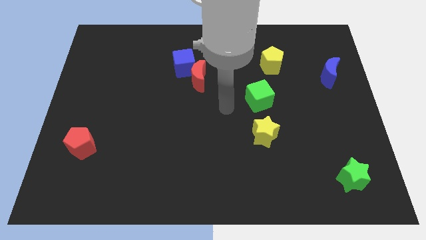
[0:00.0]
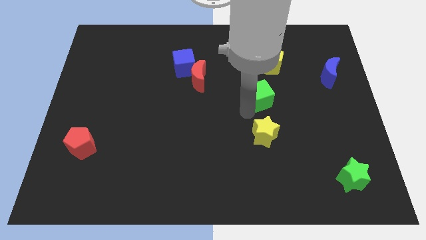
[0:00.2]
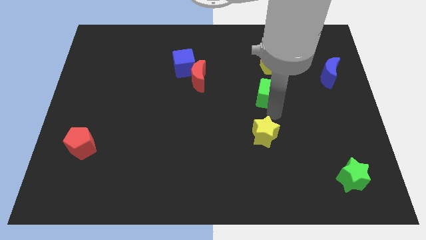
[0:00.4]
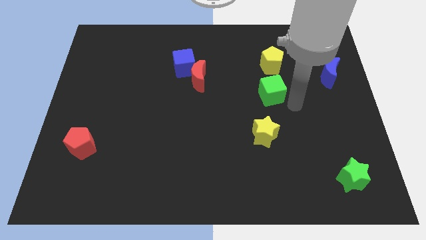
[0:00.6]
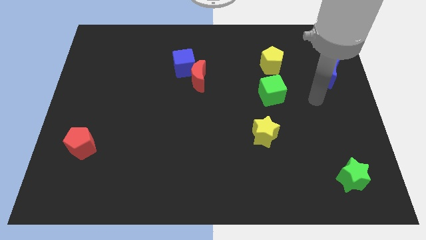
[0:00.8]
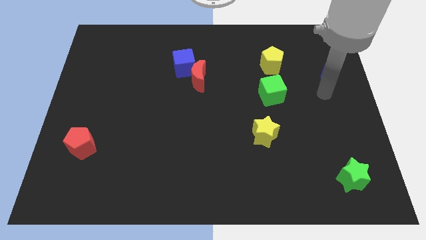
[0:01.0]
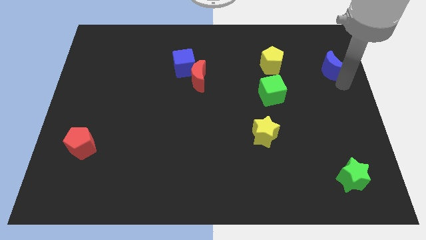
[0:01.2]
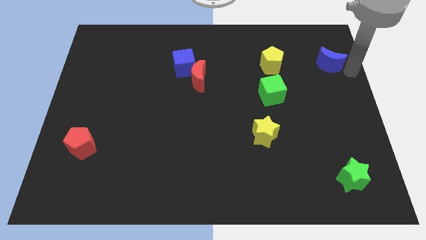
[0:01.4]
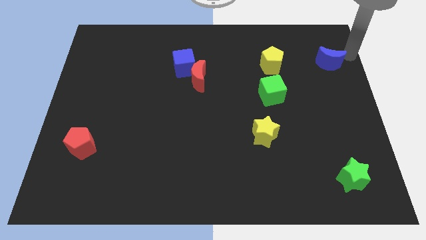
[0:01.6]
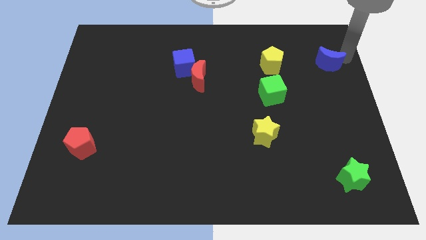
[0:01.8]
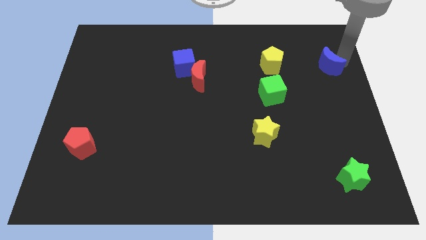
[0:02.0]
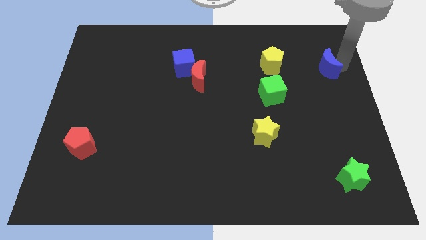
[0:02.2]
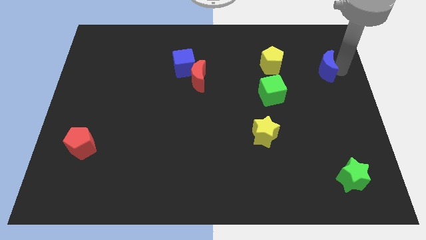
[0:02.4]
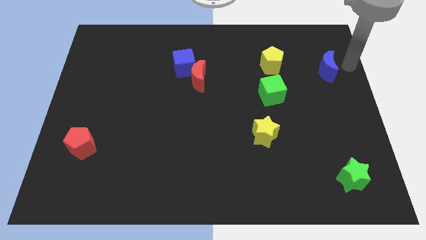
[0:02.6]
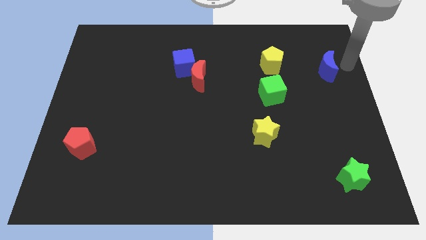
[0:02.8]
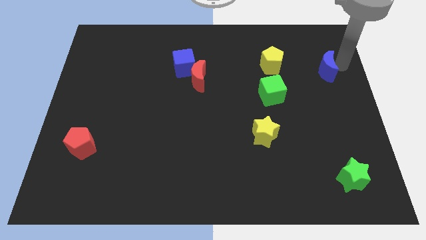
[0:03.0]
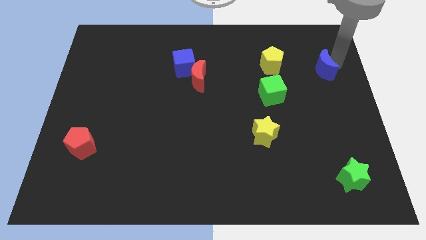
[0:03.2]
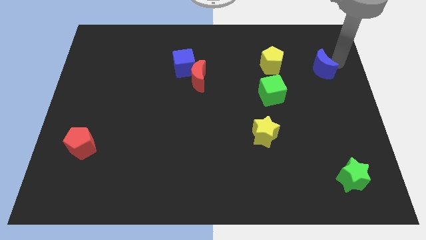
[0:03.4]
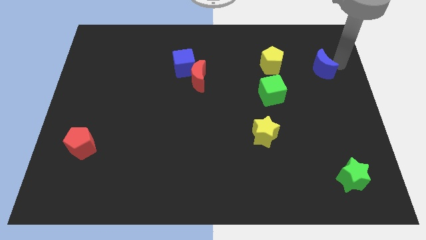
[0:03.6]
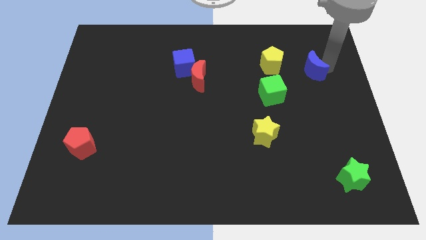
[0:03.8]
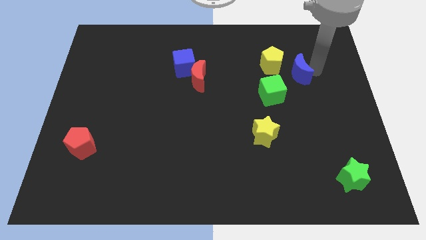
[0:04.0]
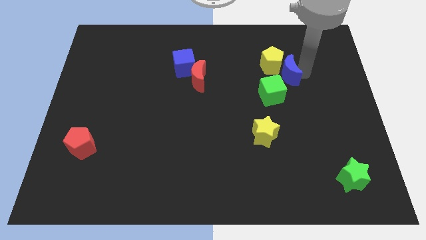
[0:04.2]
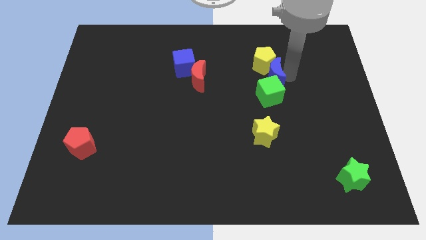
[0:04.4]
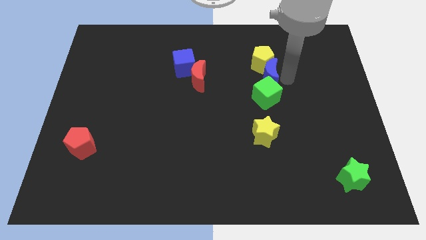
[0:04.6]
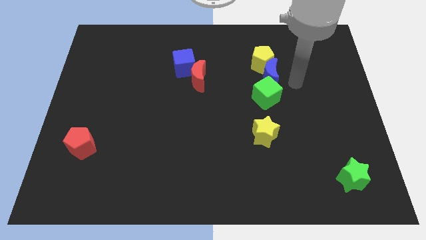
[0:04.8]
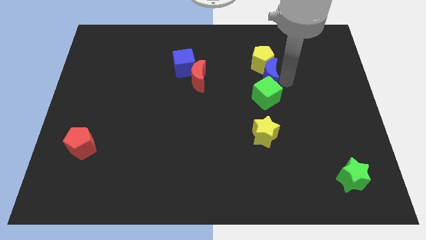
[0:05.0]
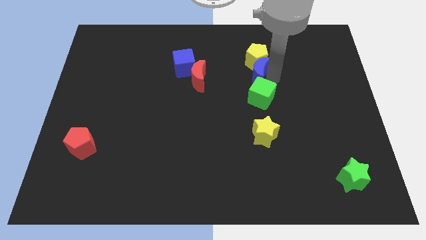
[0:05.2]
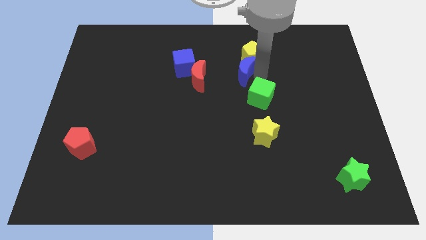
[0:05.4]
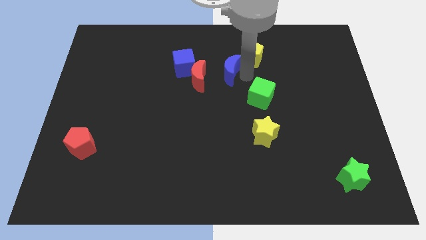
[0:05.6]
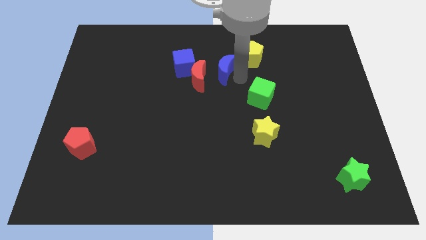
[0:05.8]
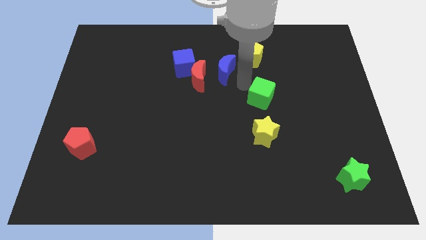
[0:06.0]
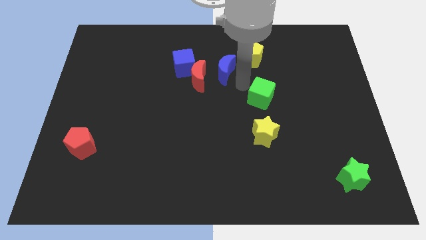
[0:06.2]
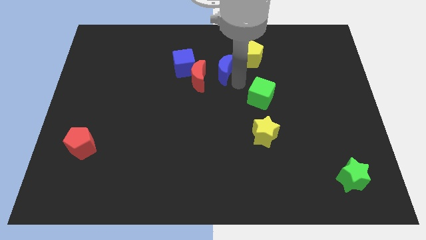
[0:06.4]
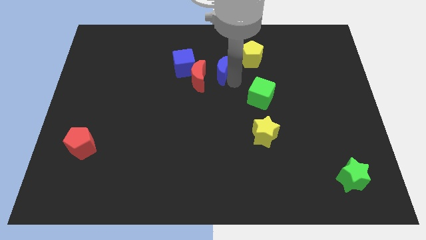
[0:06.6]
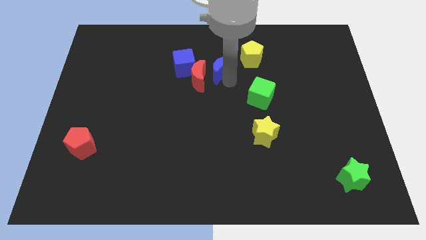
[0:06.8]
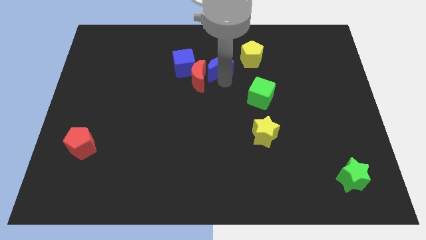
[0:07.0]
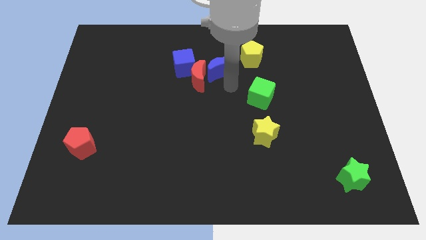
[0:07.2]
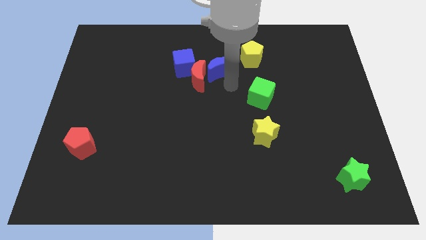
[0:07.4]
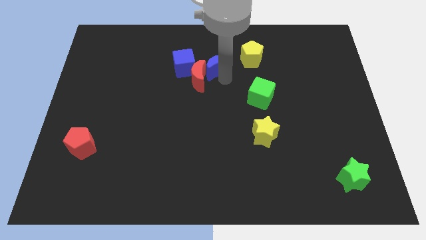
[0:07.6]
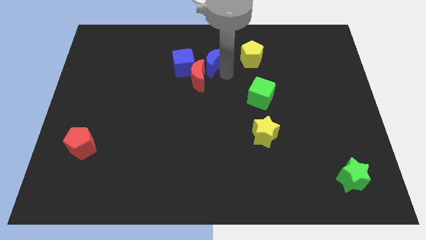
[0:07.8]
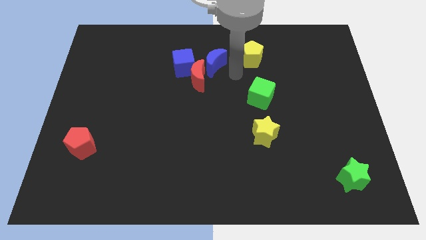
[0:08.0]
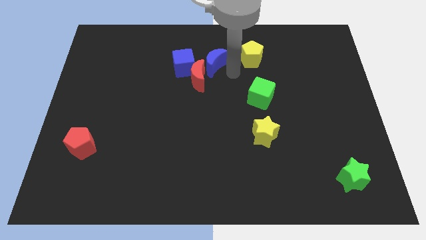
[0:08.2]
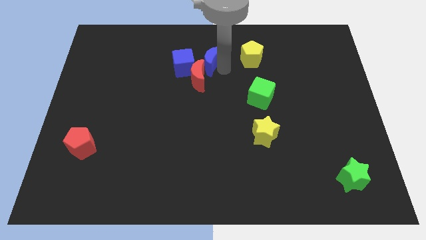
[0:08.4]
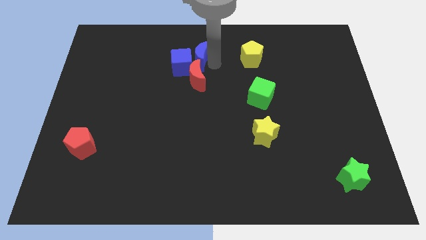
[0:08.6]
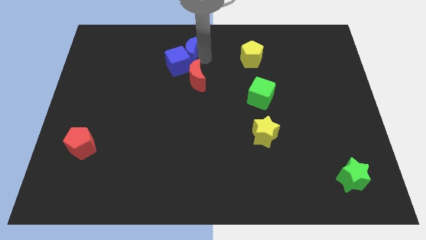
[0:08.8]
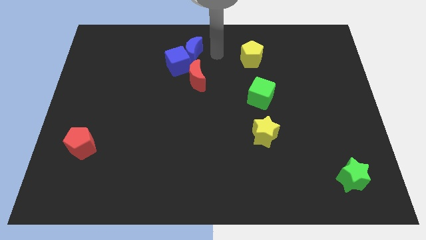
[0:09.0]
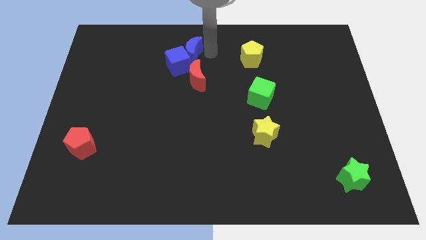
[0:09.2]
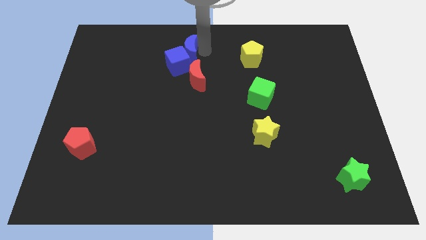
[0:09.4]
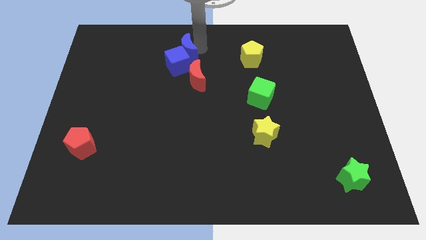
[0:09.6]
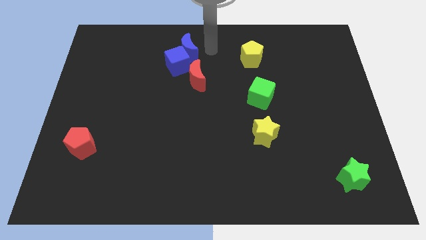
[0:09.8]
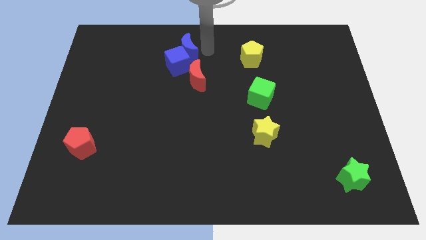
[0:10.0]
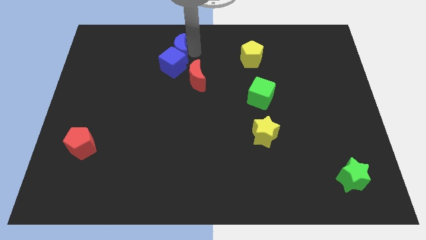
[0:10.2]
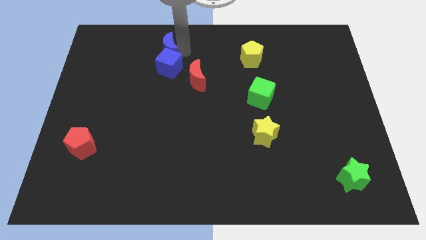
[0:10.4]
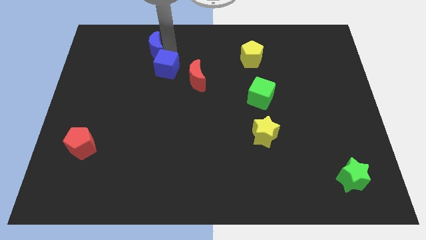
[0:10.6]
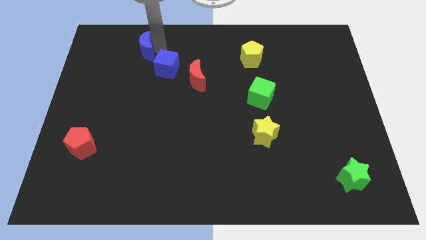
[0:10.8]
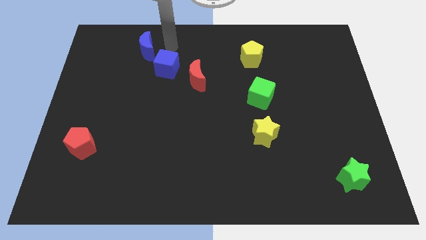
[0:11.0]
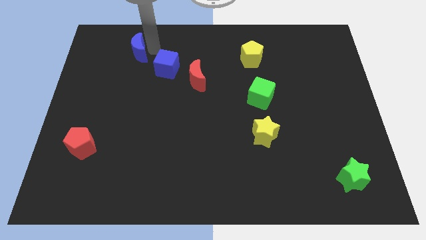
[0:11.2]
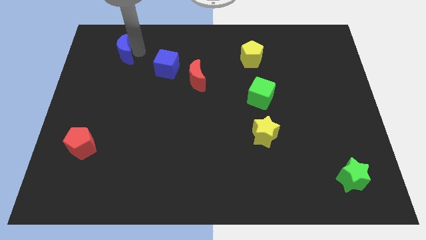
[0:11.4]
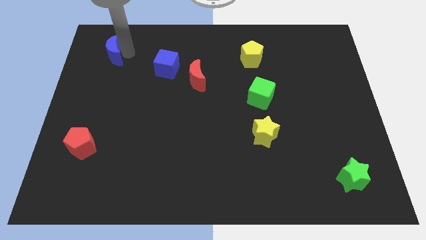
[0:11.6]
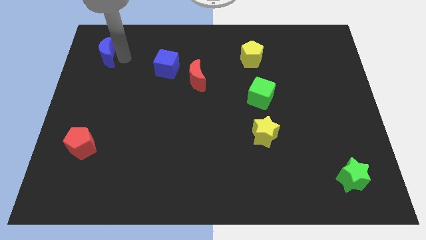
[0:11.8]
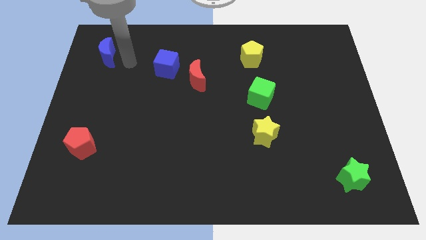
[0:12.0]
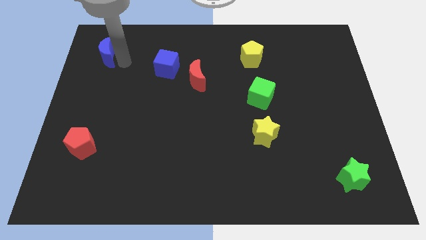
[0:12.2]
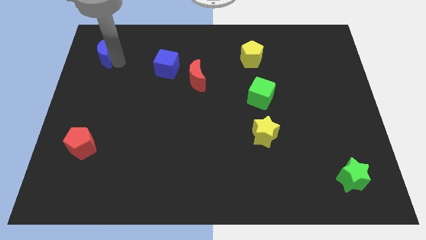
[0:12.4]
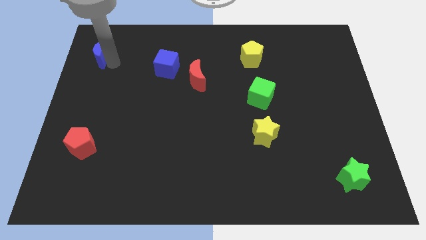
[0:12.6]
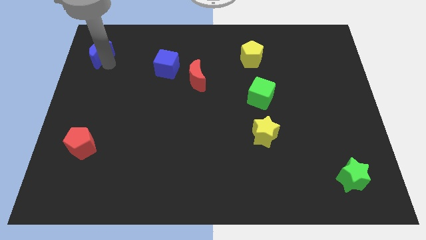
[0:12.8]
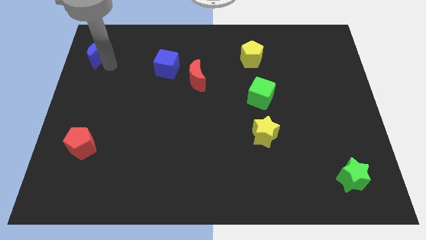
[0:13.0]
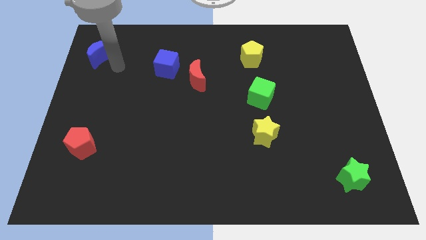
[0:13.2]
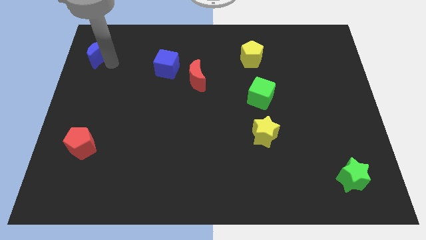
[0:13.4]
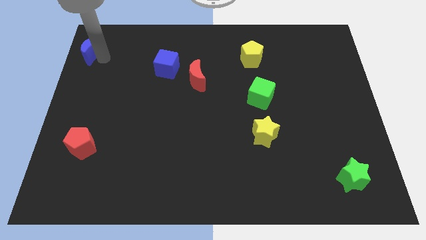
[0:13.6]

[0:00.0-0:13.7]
slide the blue moon to the upper left corner
